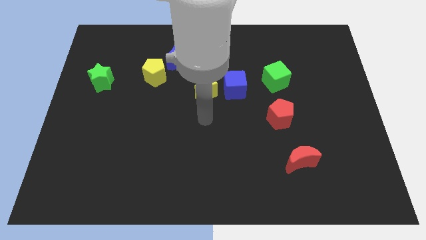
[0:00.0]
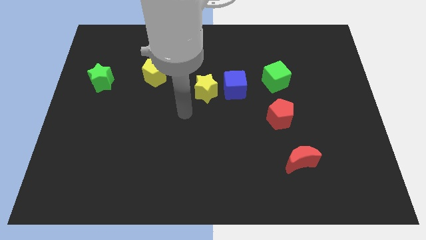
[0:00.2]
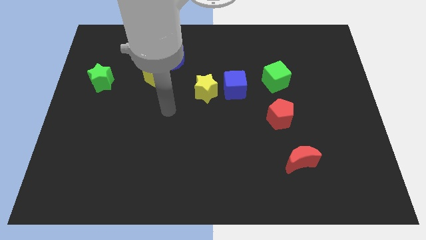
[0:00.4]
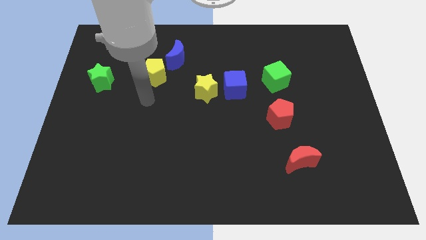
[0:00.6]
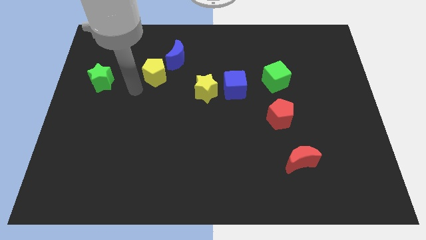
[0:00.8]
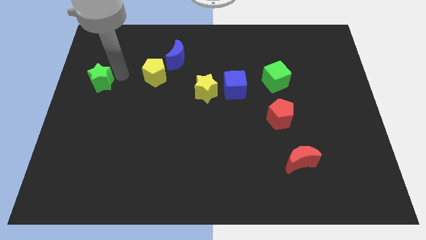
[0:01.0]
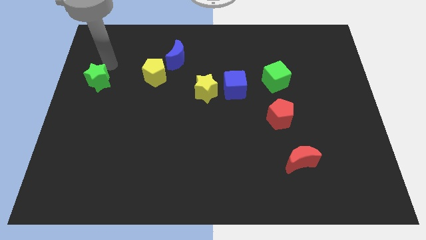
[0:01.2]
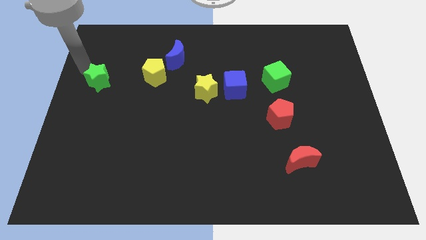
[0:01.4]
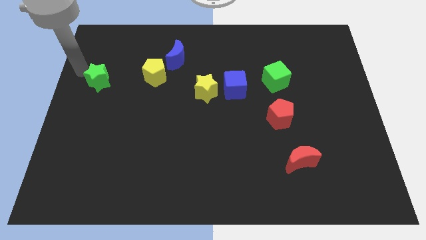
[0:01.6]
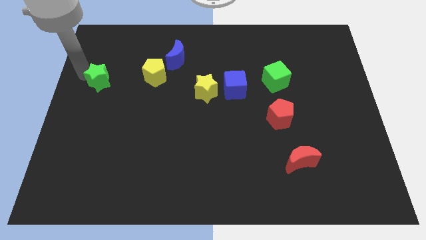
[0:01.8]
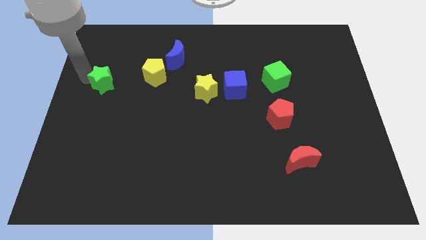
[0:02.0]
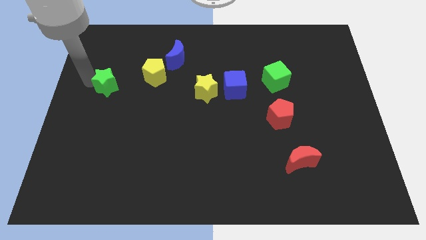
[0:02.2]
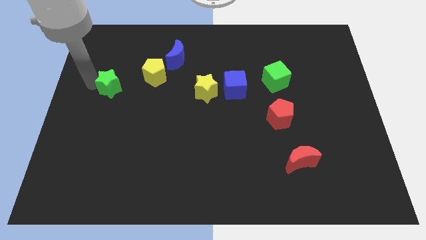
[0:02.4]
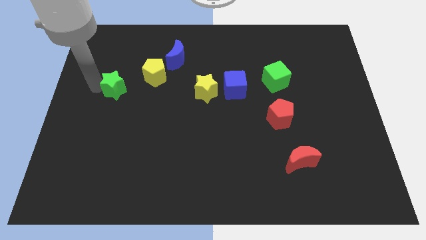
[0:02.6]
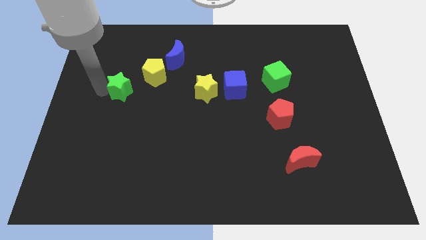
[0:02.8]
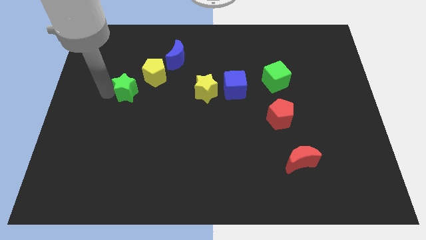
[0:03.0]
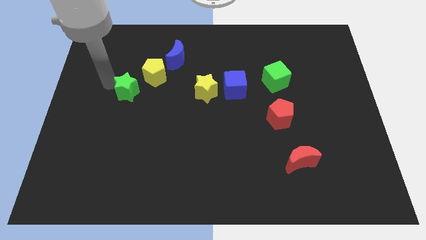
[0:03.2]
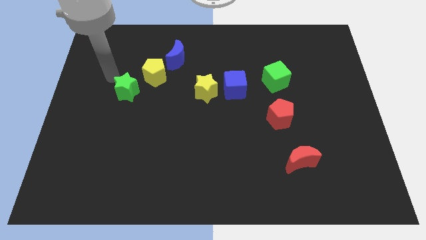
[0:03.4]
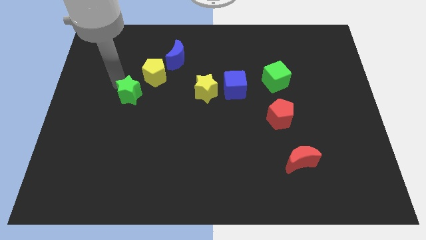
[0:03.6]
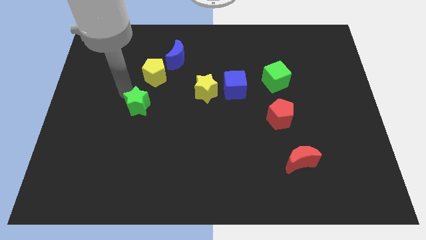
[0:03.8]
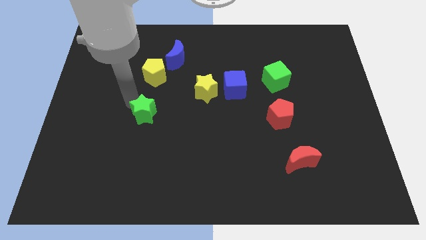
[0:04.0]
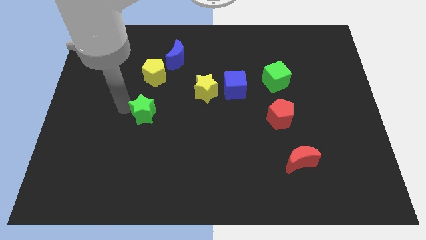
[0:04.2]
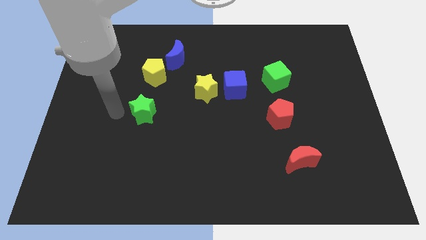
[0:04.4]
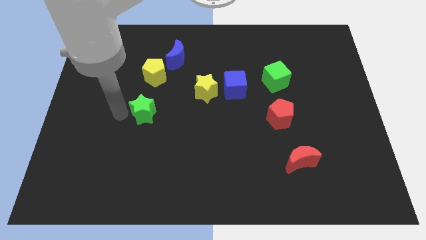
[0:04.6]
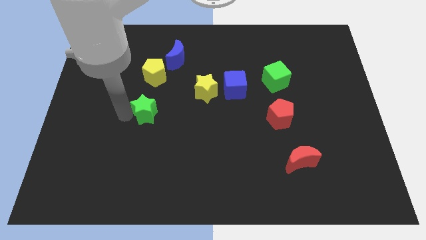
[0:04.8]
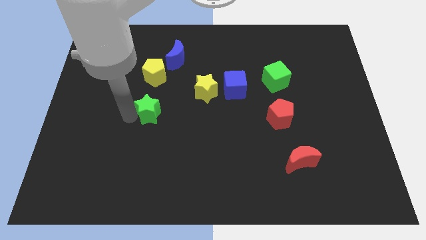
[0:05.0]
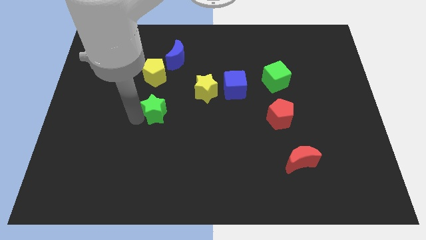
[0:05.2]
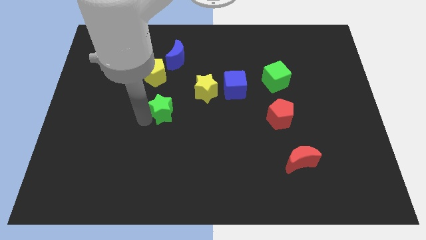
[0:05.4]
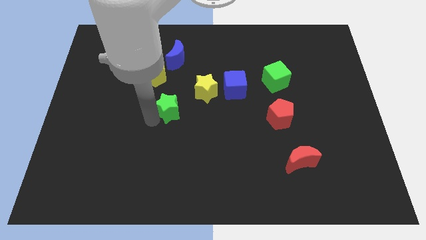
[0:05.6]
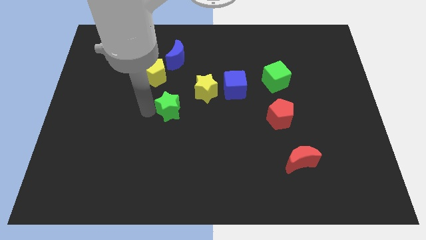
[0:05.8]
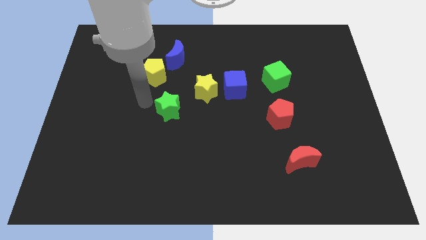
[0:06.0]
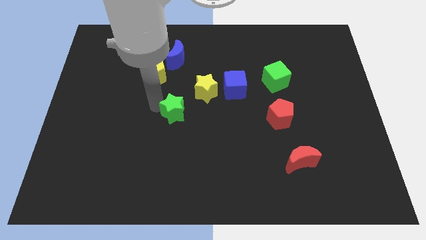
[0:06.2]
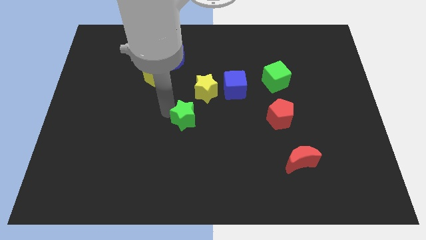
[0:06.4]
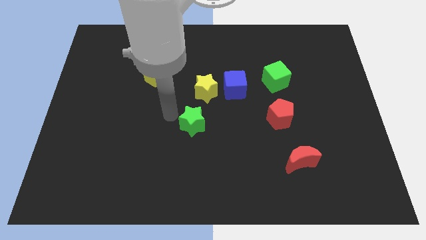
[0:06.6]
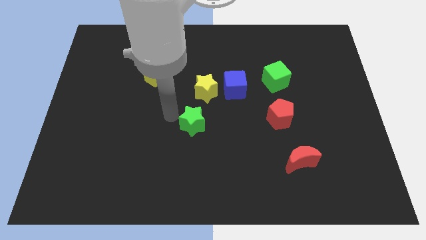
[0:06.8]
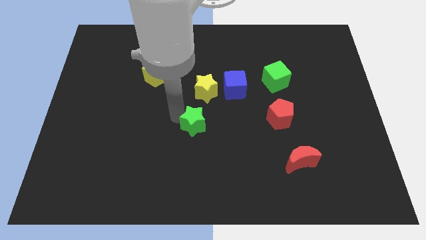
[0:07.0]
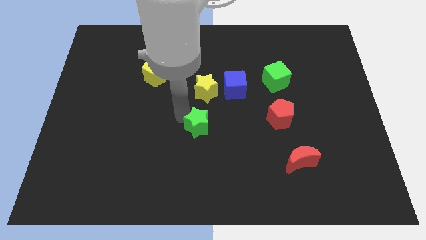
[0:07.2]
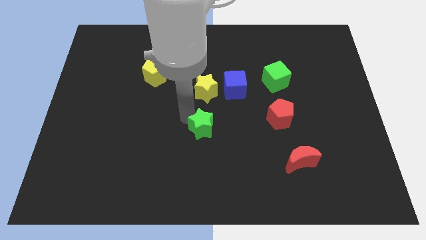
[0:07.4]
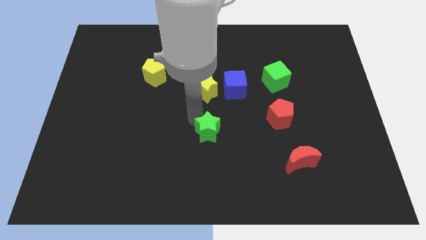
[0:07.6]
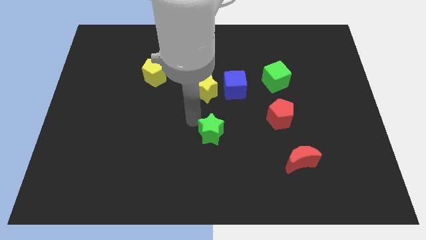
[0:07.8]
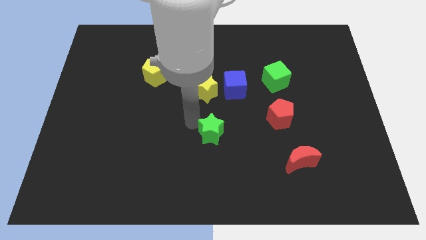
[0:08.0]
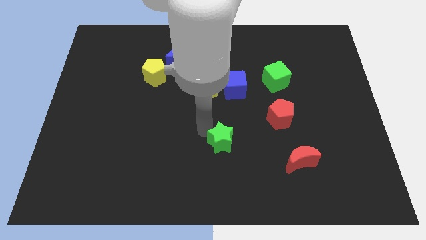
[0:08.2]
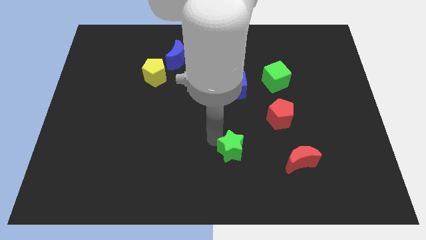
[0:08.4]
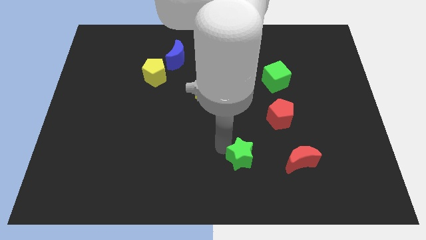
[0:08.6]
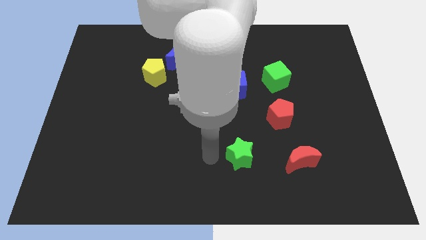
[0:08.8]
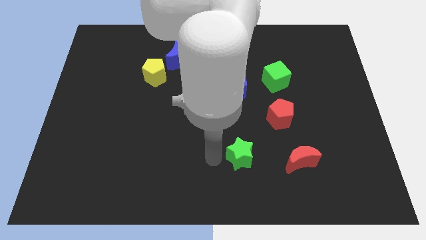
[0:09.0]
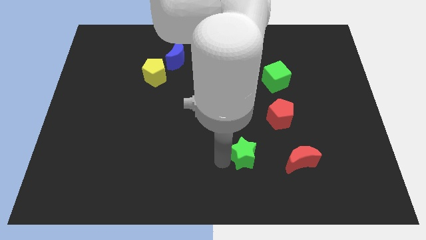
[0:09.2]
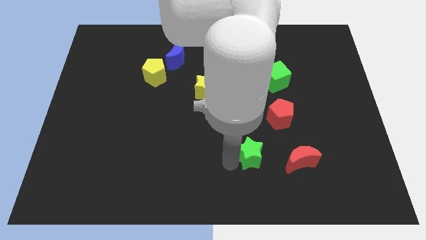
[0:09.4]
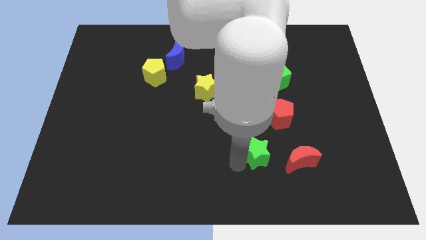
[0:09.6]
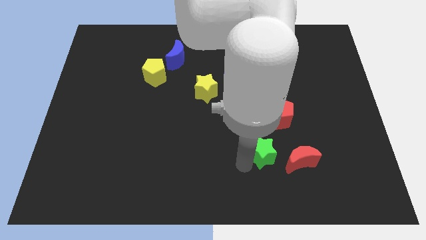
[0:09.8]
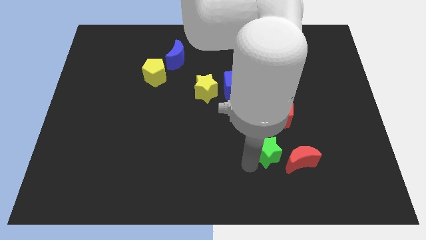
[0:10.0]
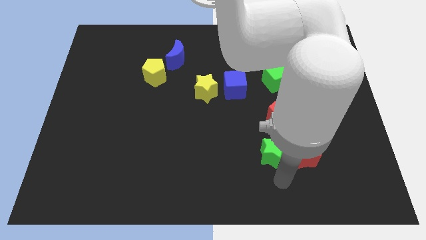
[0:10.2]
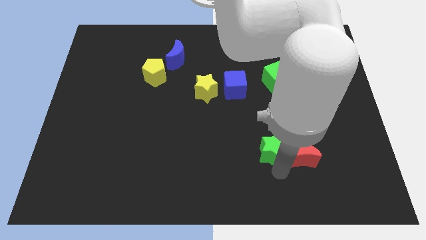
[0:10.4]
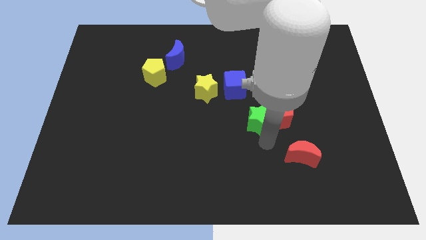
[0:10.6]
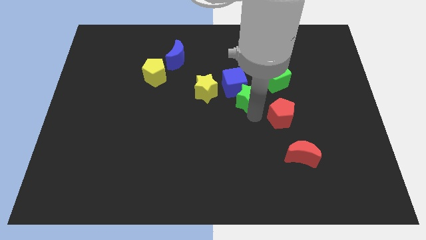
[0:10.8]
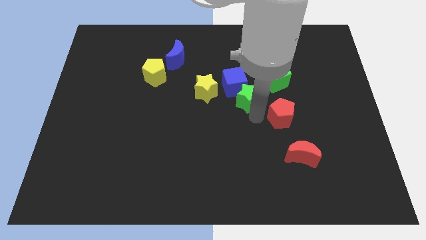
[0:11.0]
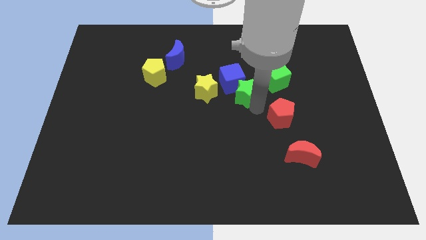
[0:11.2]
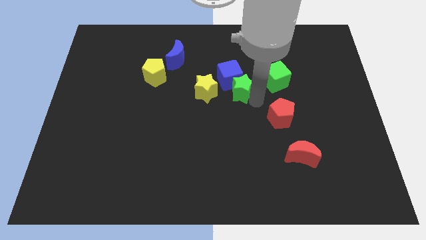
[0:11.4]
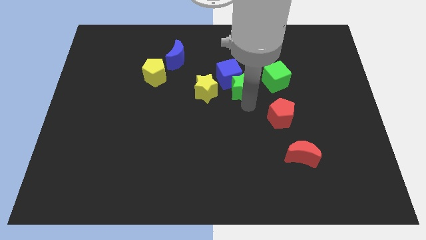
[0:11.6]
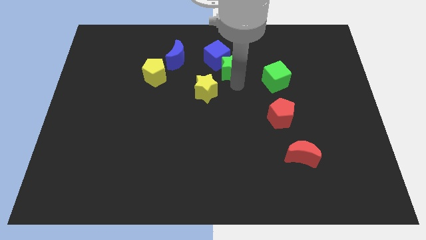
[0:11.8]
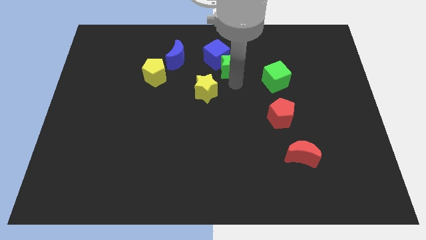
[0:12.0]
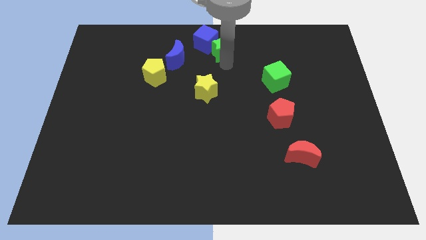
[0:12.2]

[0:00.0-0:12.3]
move the green star to the top side
